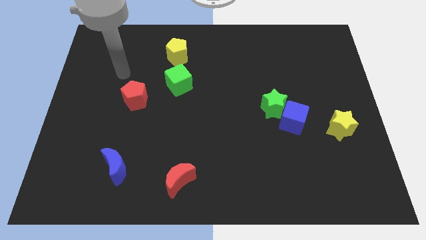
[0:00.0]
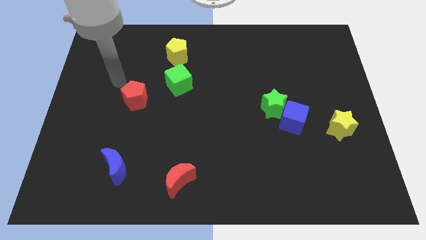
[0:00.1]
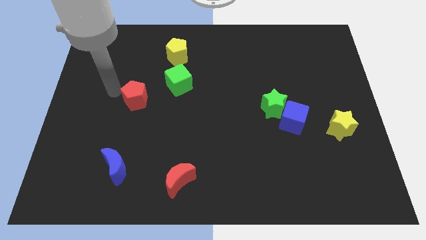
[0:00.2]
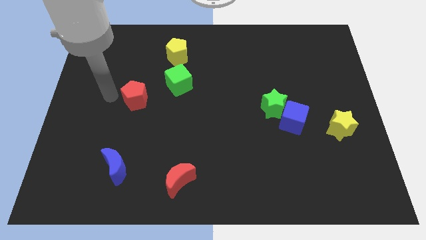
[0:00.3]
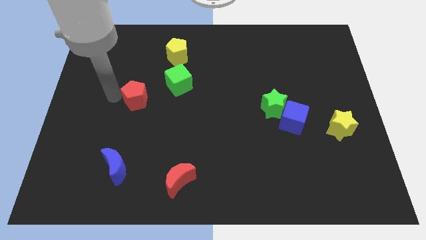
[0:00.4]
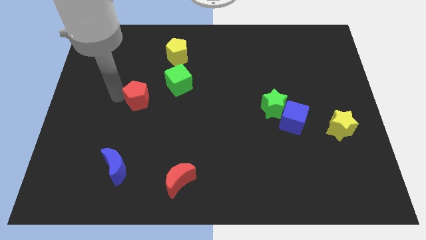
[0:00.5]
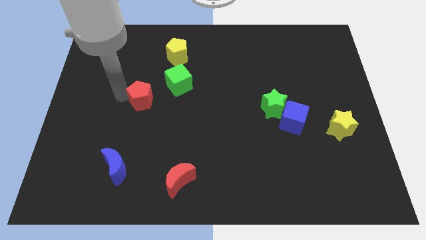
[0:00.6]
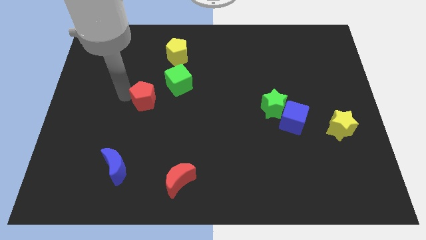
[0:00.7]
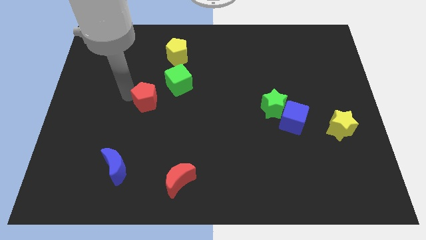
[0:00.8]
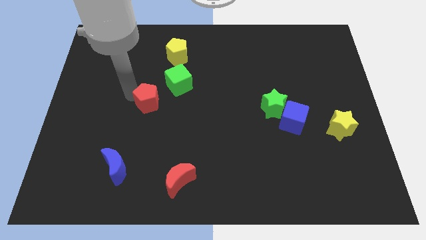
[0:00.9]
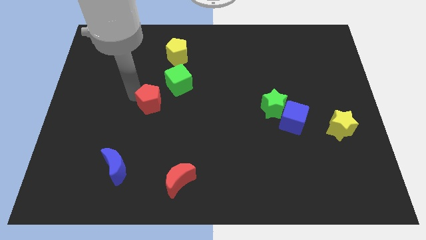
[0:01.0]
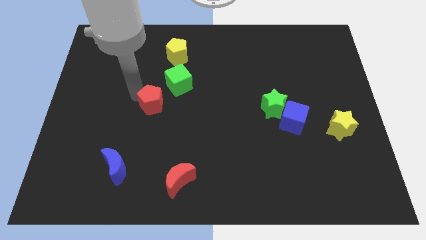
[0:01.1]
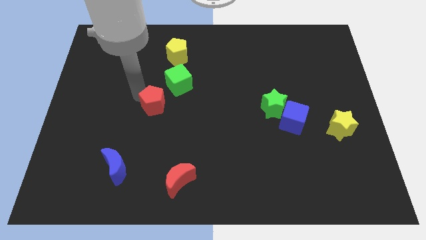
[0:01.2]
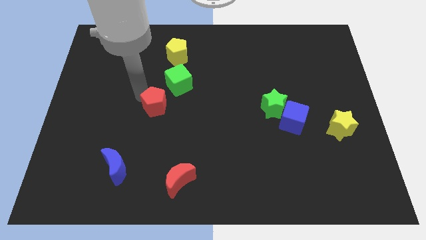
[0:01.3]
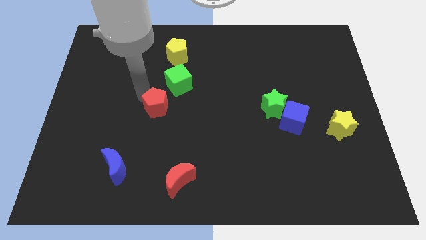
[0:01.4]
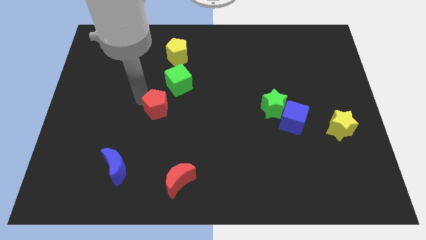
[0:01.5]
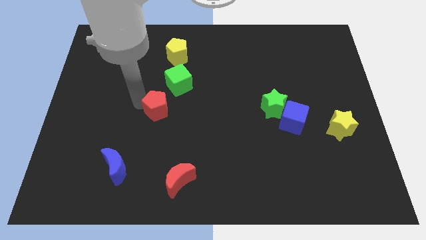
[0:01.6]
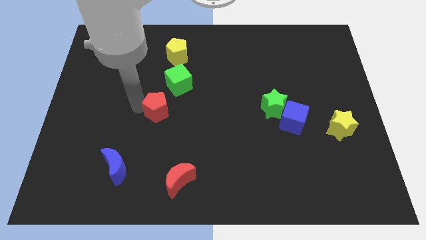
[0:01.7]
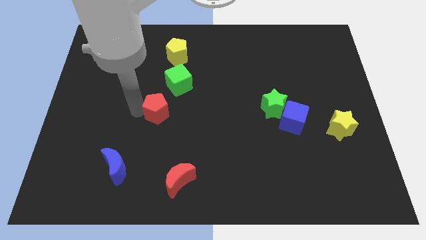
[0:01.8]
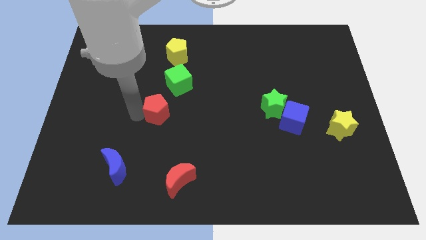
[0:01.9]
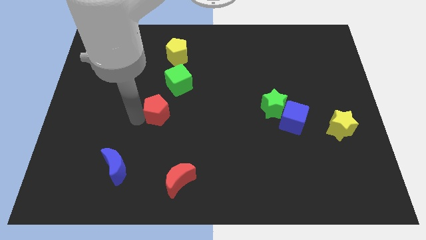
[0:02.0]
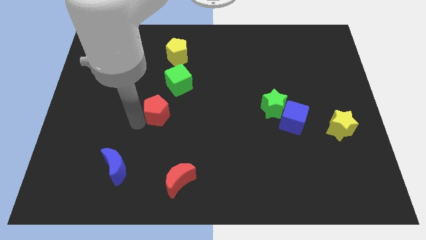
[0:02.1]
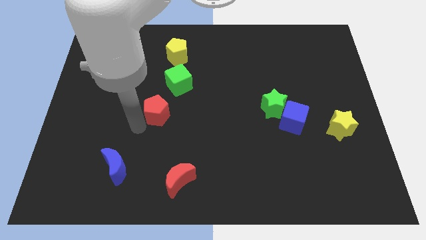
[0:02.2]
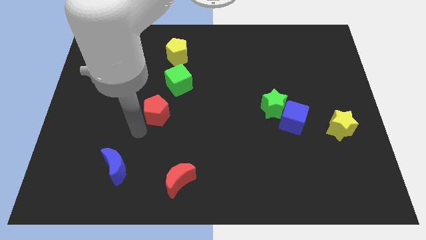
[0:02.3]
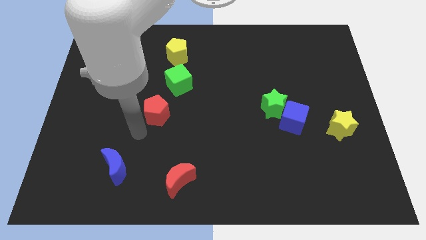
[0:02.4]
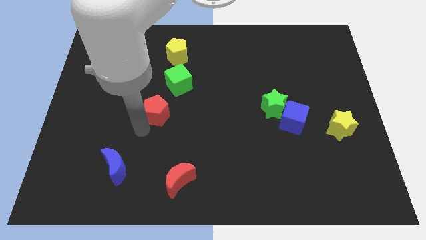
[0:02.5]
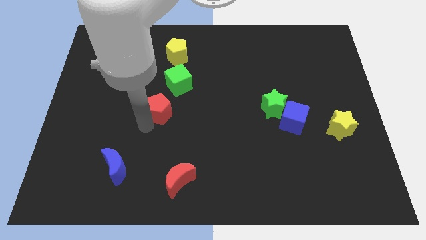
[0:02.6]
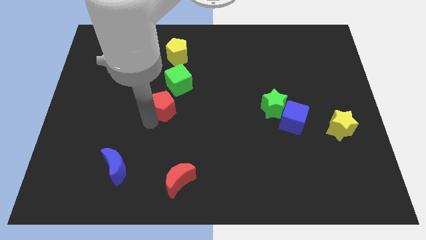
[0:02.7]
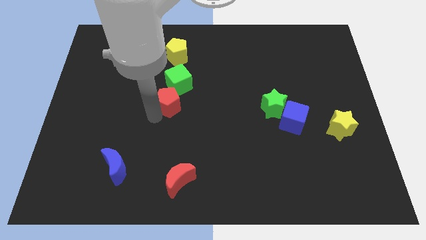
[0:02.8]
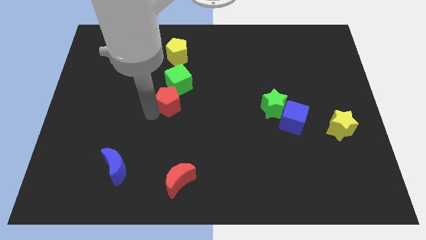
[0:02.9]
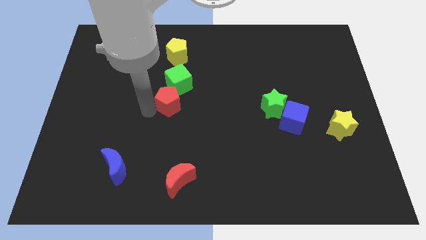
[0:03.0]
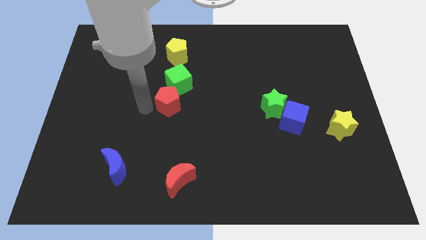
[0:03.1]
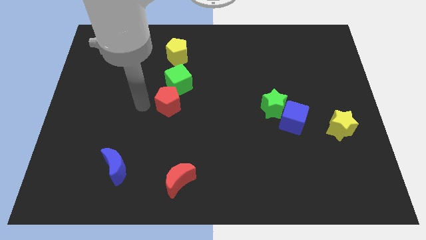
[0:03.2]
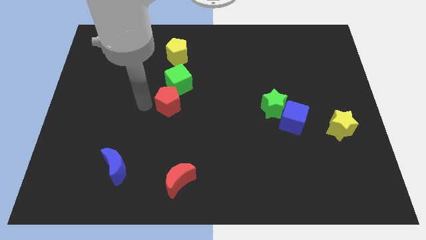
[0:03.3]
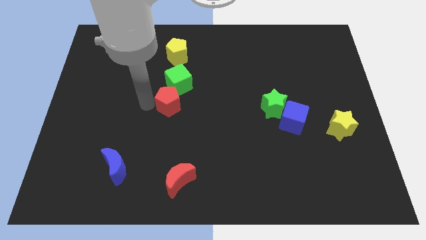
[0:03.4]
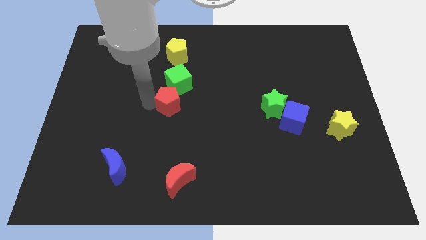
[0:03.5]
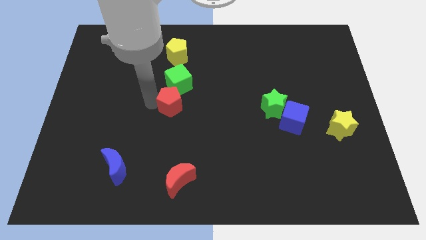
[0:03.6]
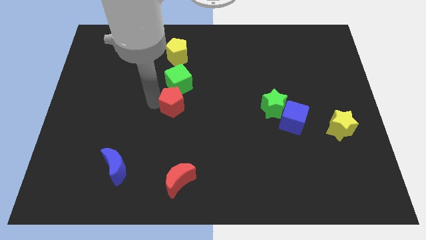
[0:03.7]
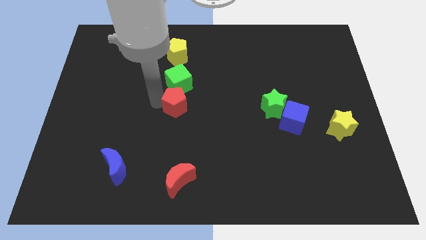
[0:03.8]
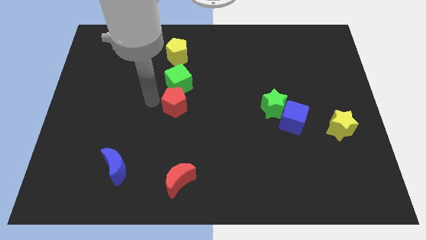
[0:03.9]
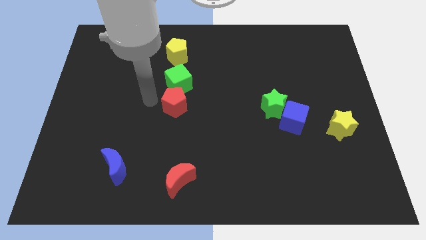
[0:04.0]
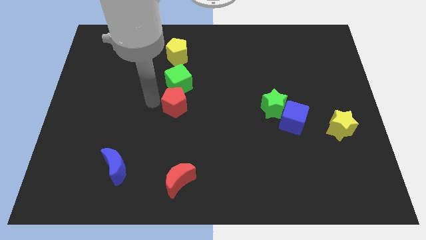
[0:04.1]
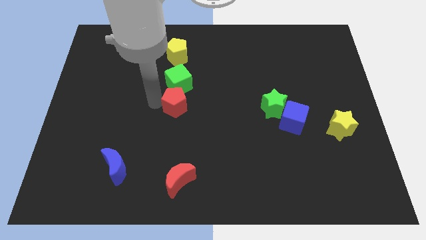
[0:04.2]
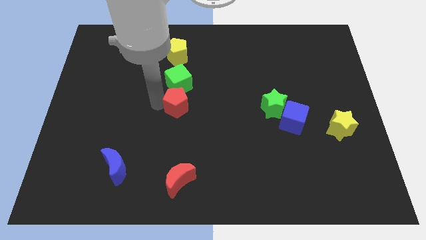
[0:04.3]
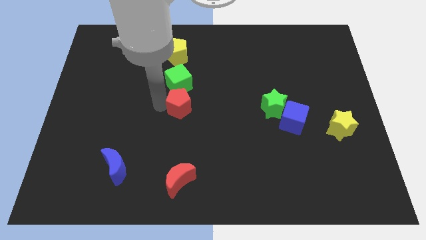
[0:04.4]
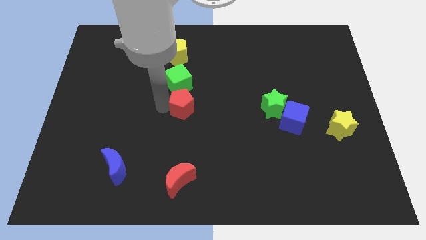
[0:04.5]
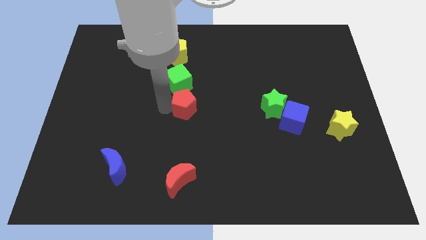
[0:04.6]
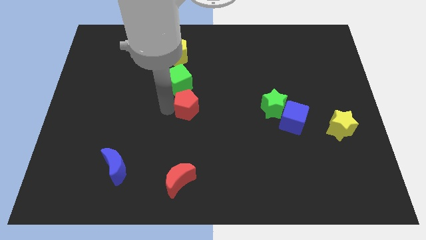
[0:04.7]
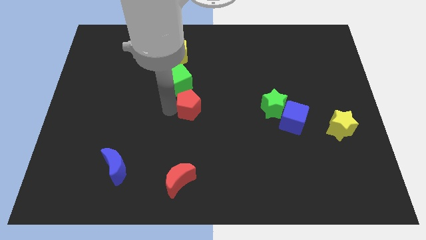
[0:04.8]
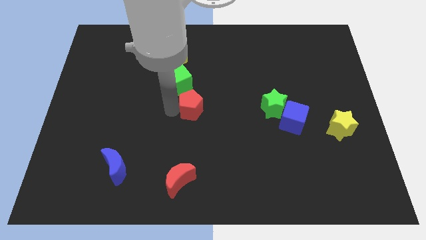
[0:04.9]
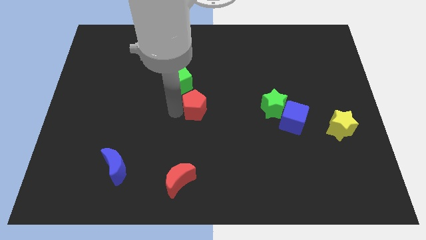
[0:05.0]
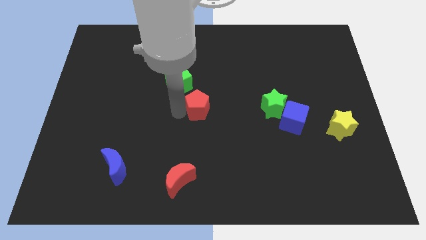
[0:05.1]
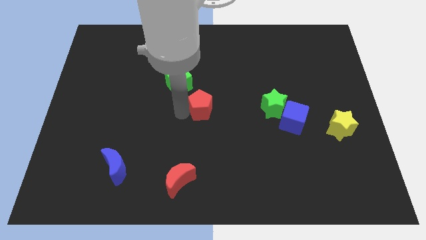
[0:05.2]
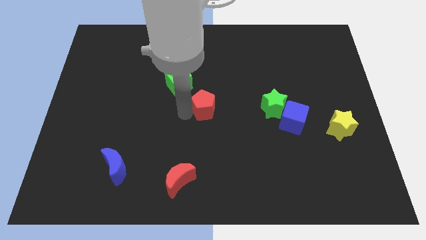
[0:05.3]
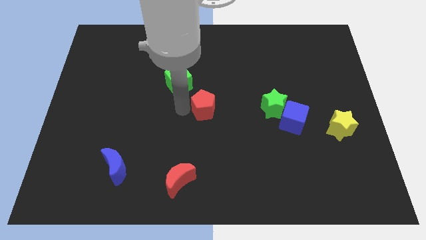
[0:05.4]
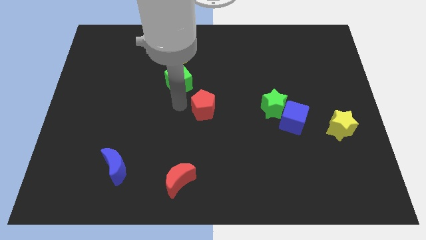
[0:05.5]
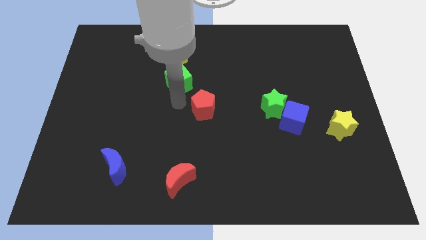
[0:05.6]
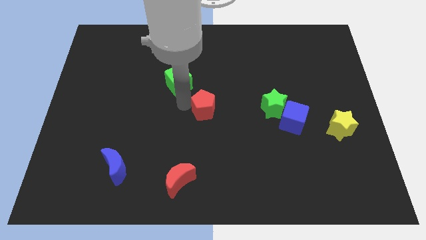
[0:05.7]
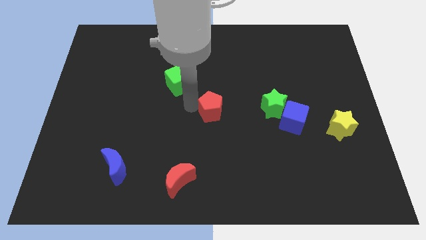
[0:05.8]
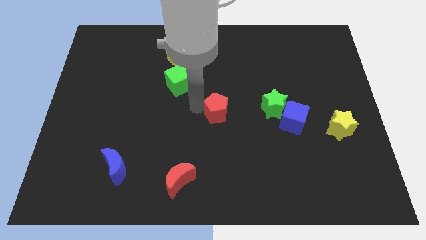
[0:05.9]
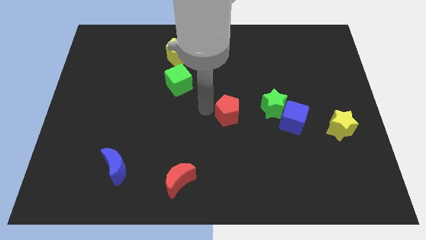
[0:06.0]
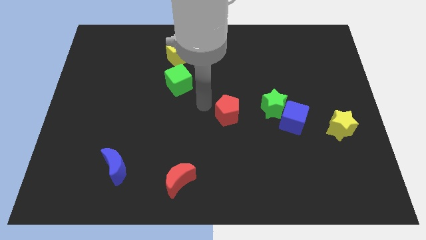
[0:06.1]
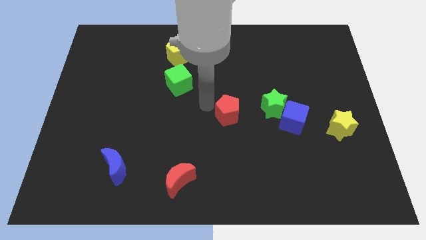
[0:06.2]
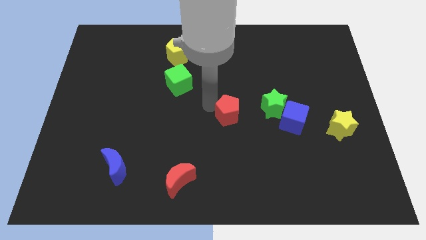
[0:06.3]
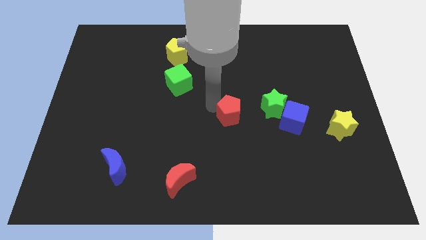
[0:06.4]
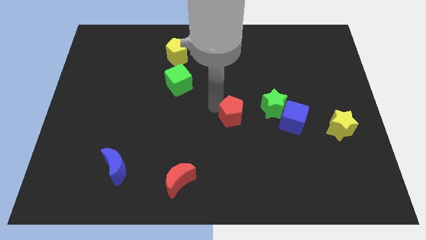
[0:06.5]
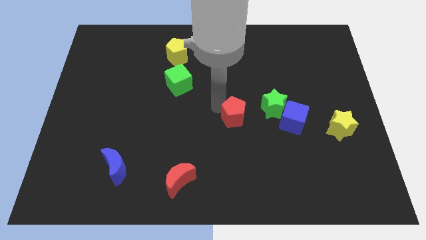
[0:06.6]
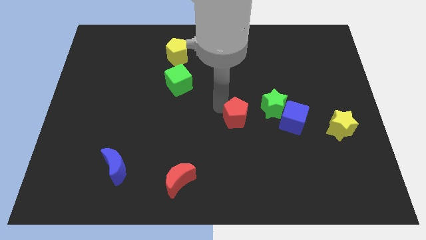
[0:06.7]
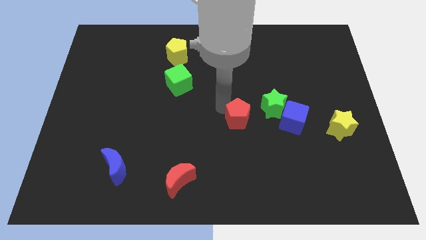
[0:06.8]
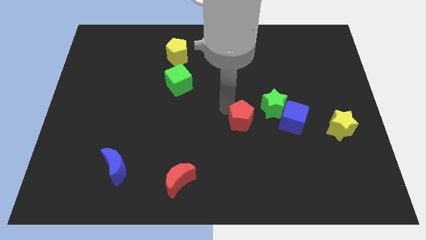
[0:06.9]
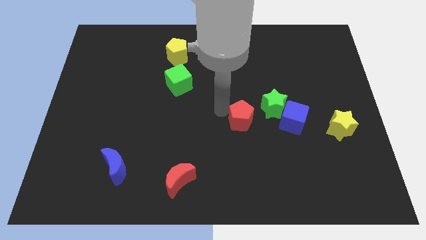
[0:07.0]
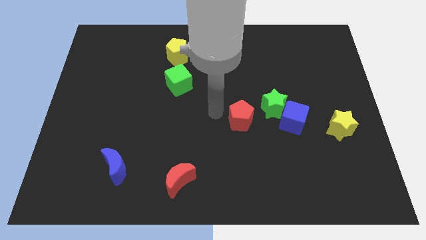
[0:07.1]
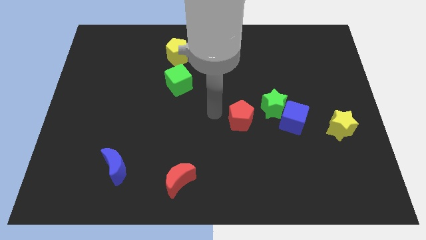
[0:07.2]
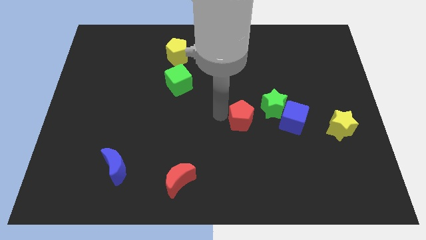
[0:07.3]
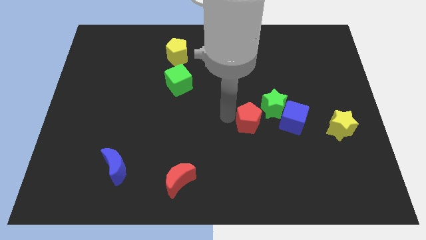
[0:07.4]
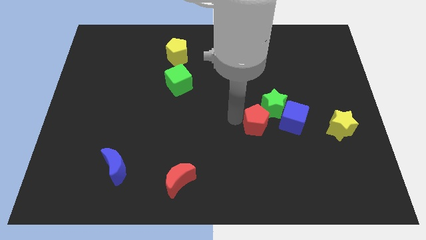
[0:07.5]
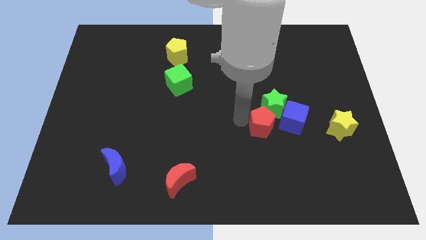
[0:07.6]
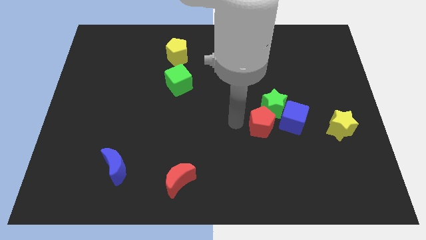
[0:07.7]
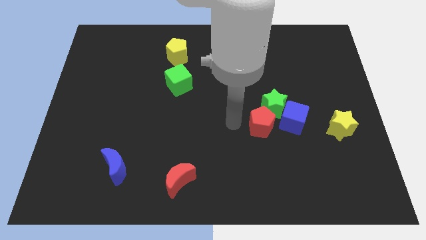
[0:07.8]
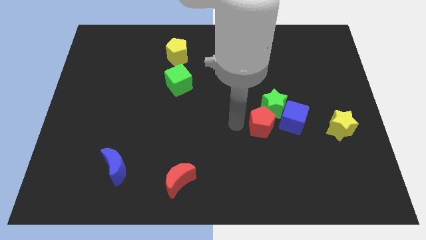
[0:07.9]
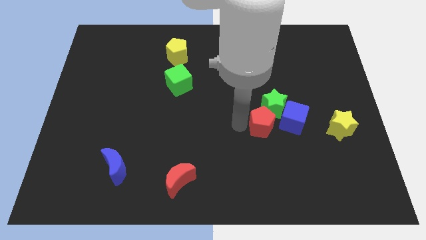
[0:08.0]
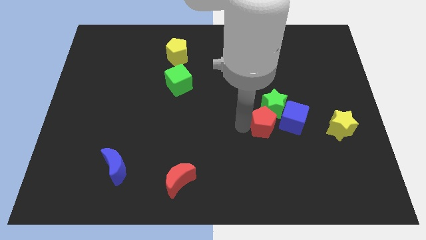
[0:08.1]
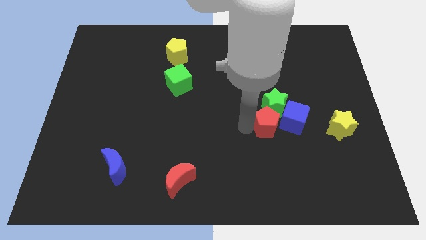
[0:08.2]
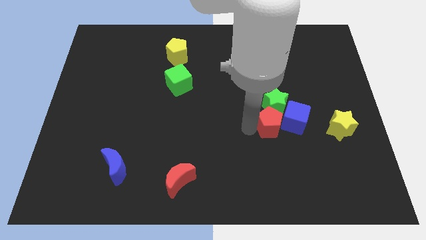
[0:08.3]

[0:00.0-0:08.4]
put the red pentagon to the left of the yellow star

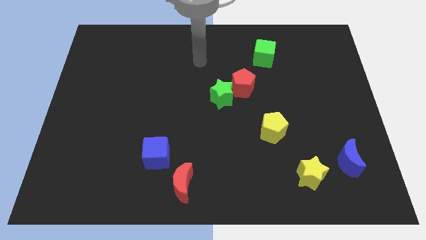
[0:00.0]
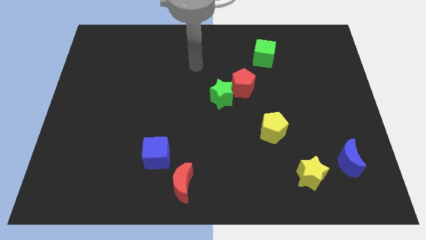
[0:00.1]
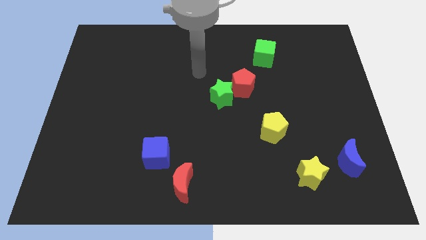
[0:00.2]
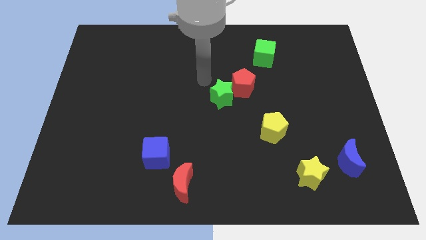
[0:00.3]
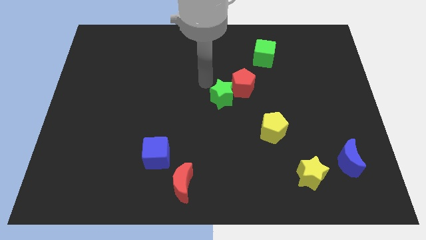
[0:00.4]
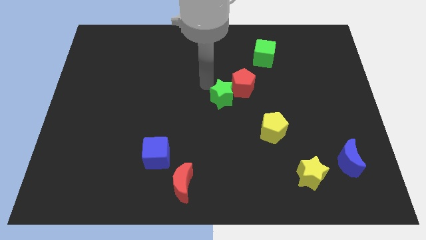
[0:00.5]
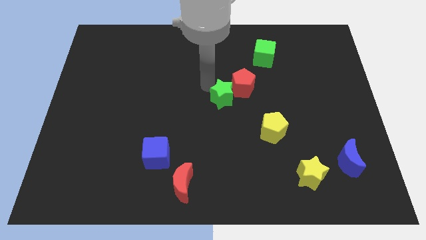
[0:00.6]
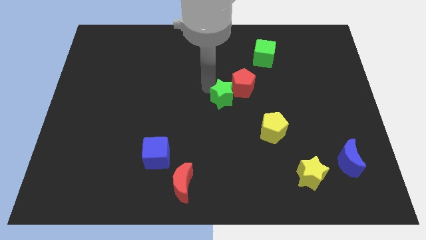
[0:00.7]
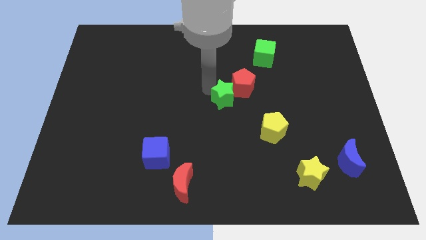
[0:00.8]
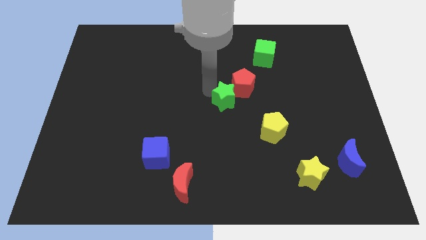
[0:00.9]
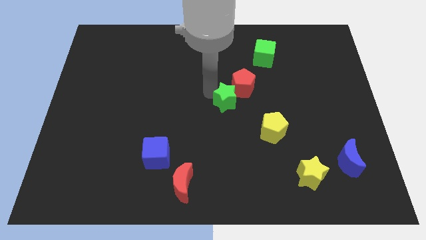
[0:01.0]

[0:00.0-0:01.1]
push the green star to the bottom of the red pentagon
